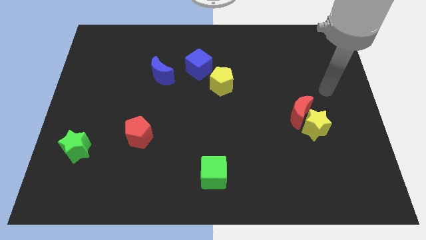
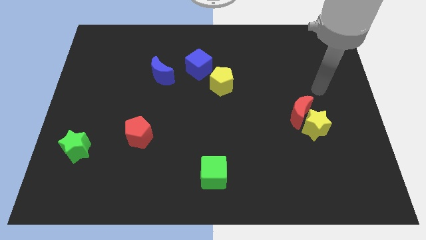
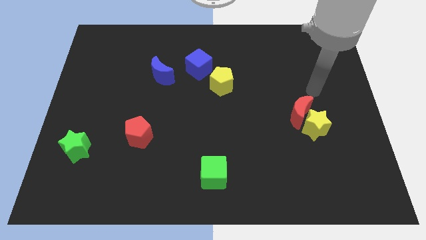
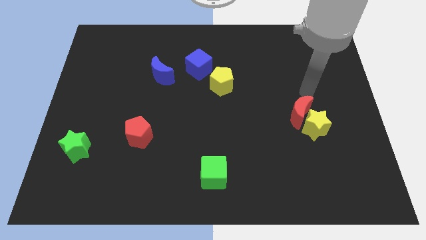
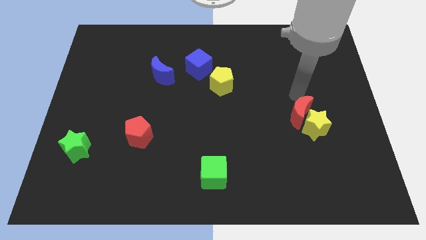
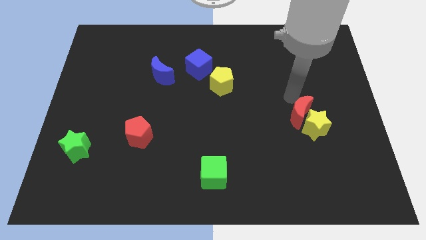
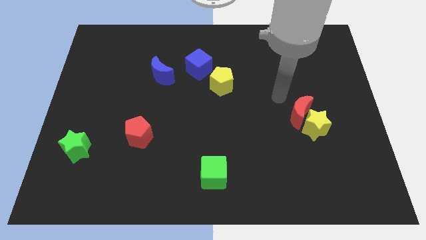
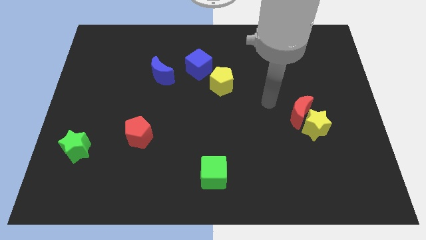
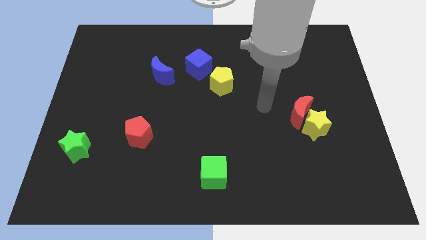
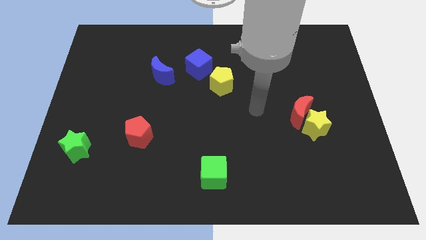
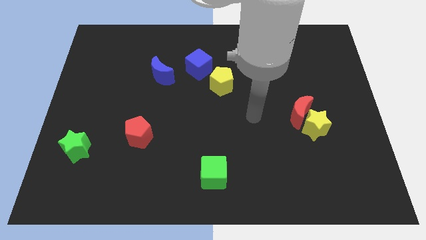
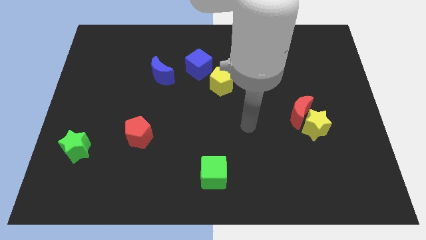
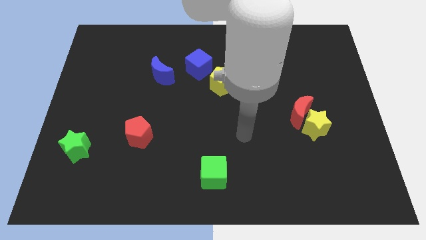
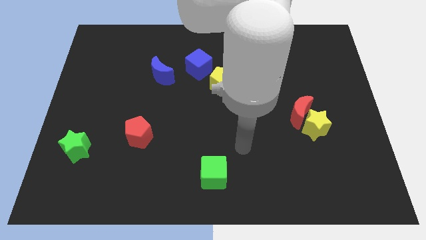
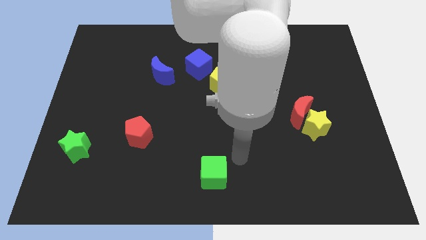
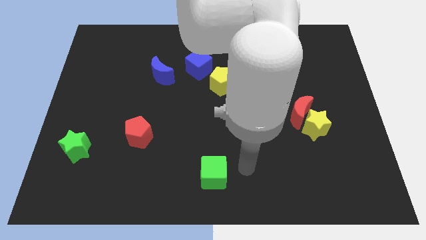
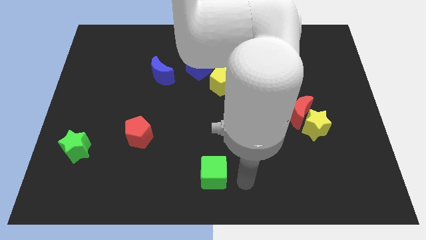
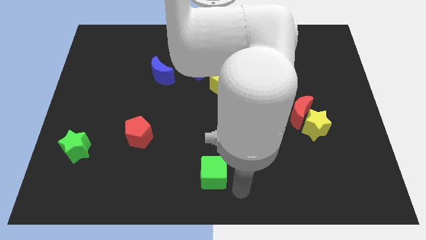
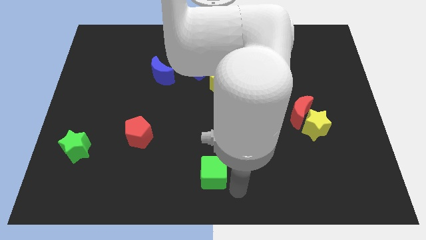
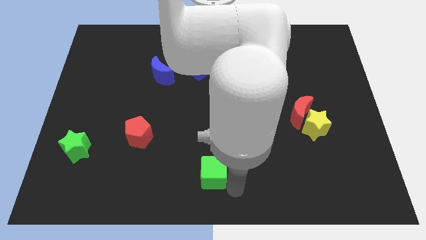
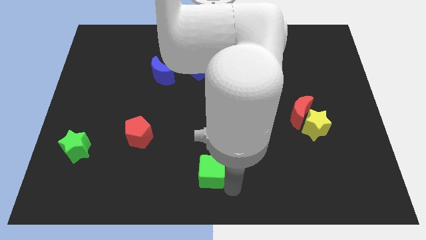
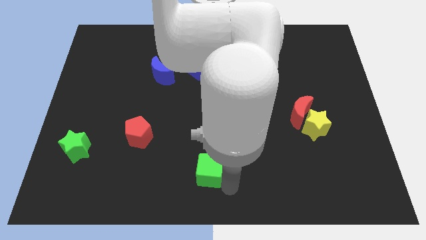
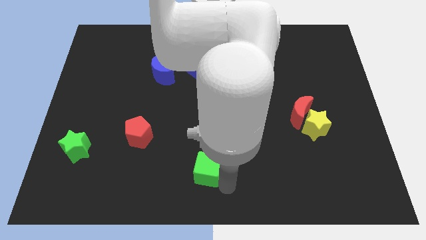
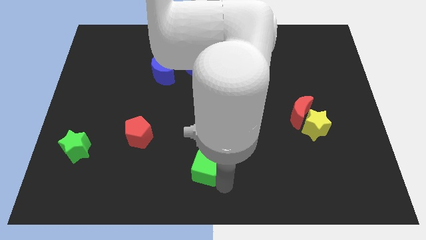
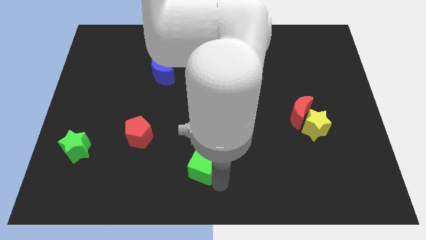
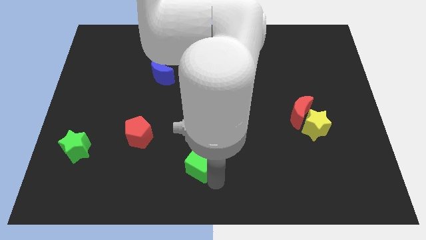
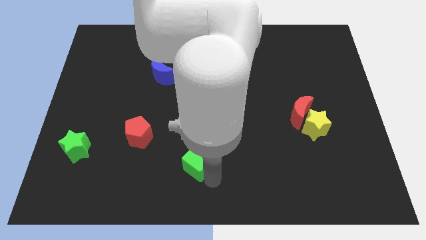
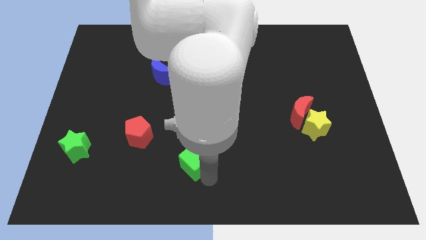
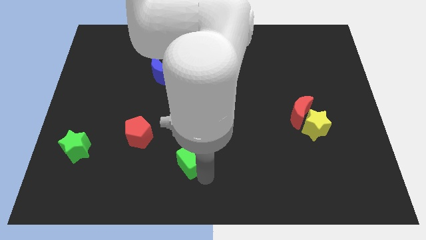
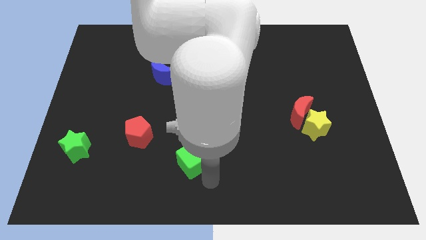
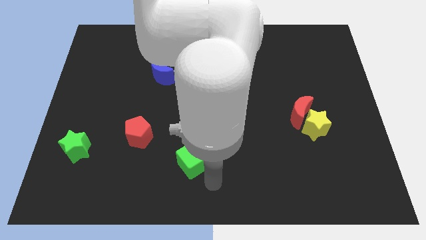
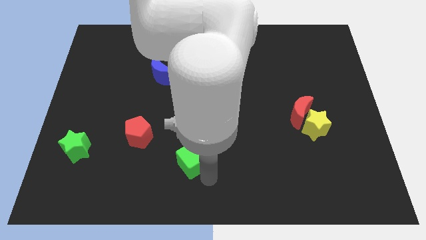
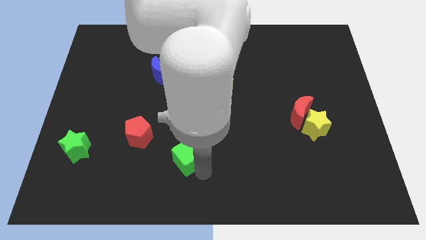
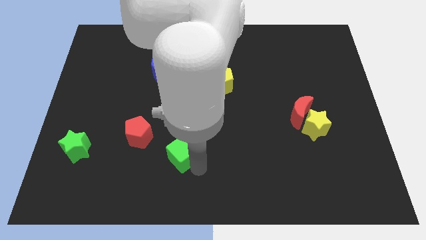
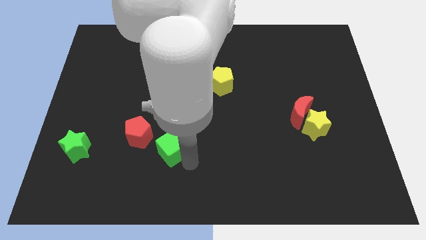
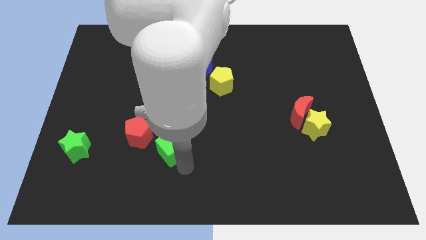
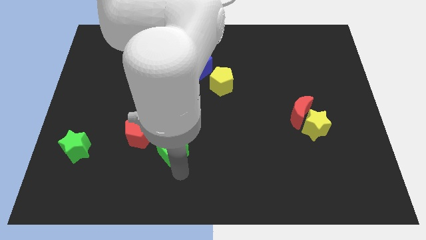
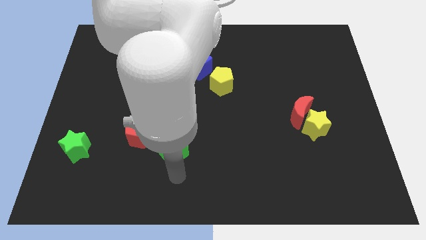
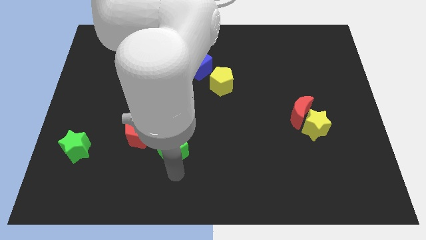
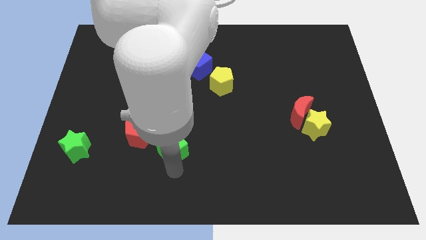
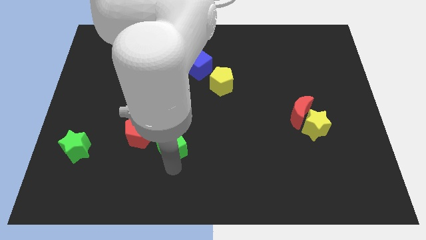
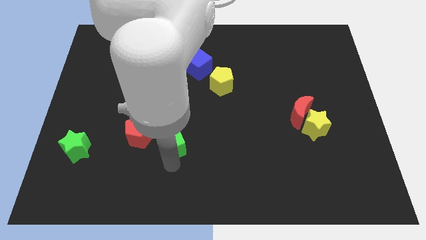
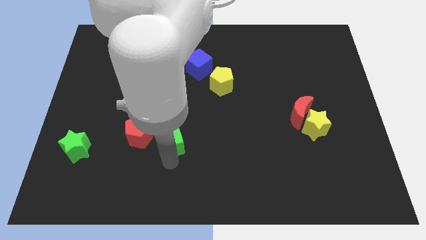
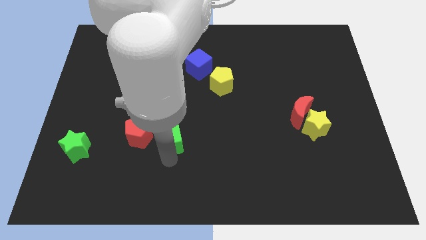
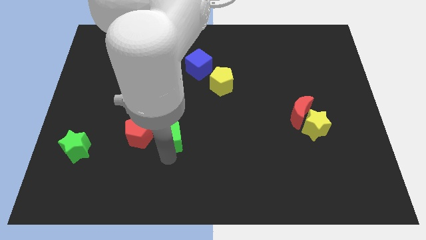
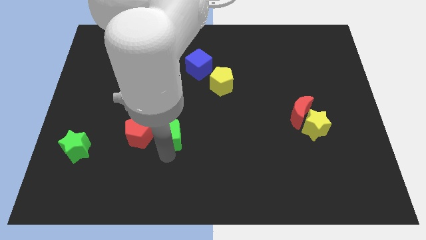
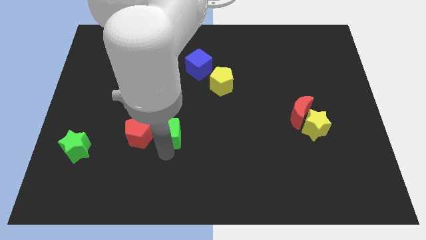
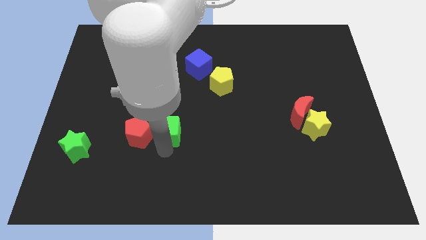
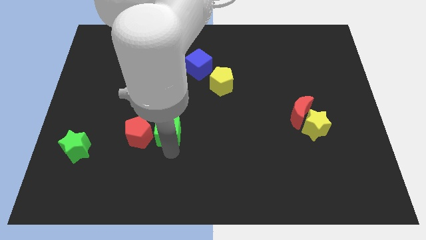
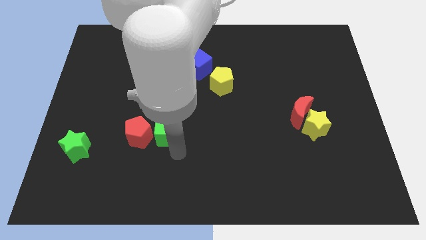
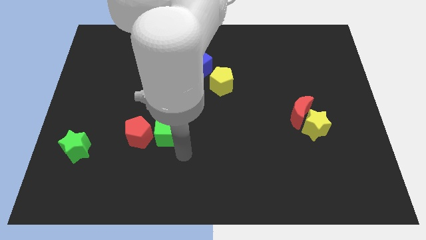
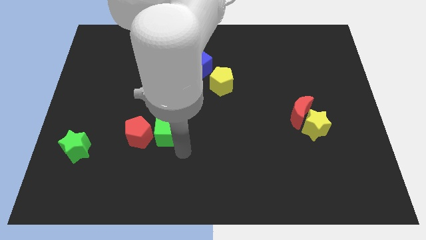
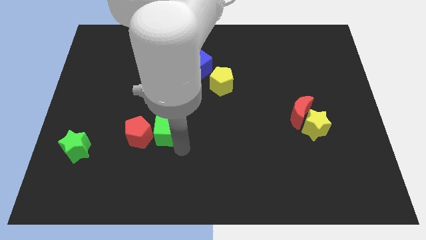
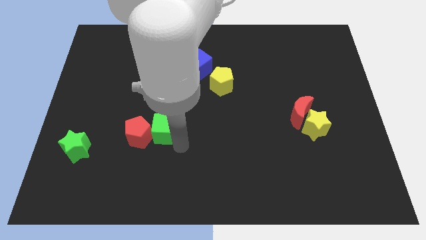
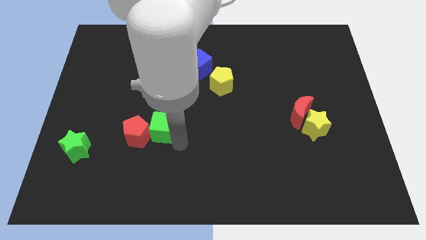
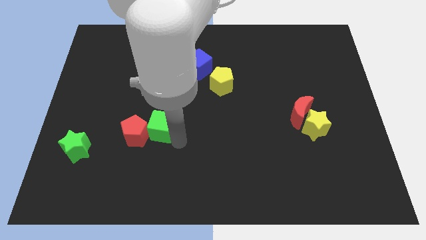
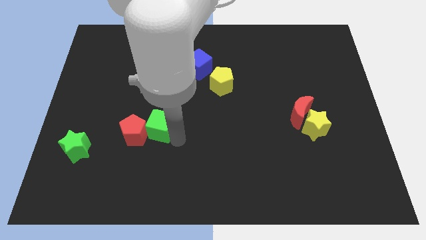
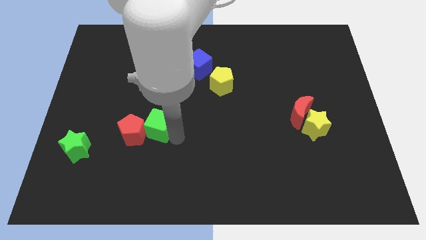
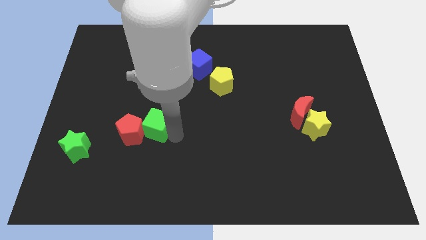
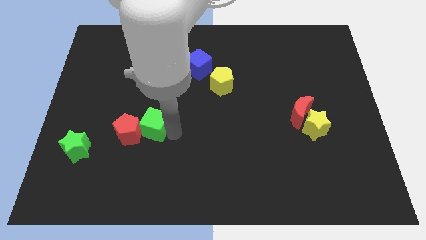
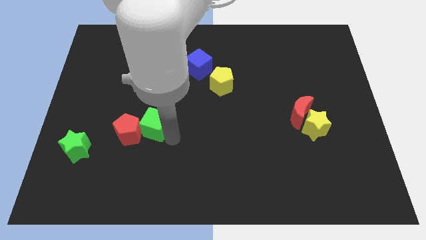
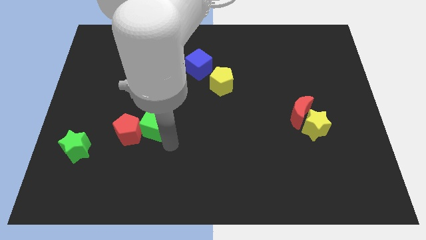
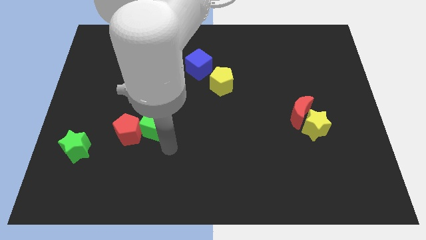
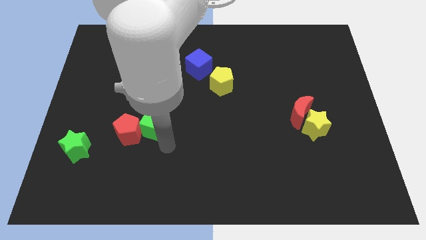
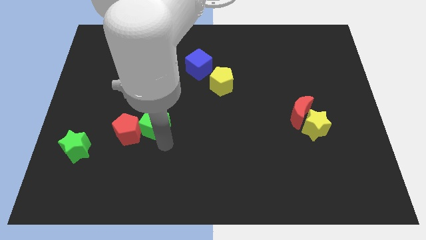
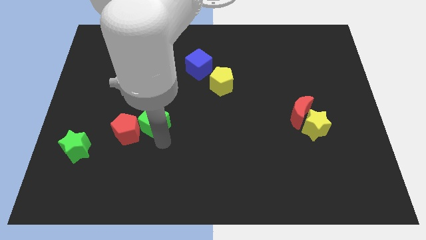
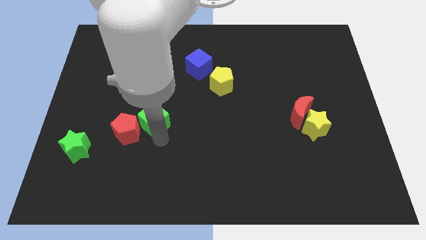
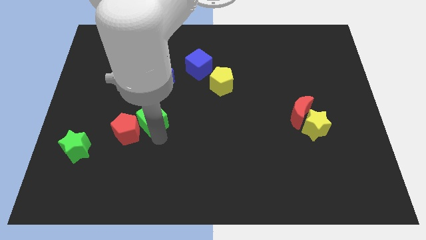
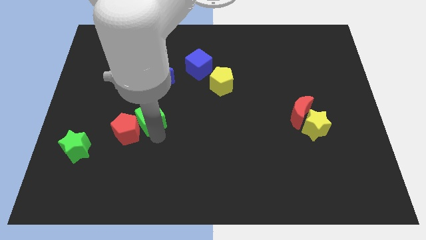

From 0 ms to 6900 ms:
move the green cube diagonally upwards and left

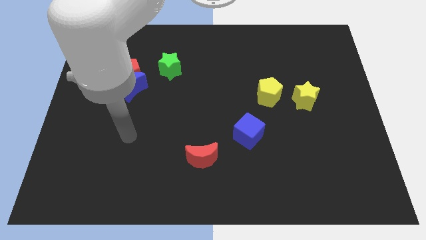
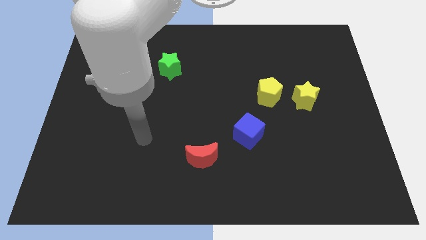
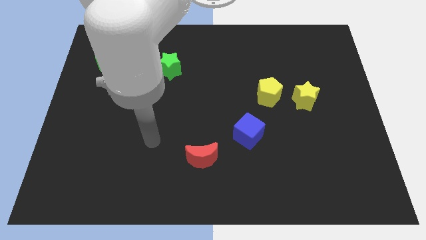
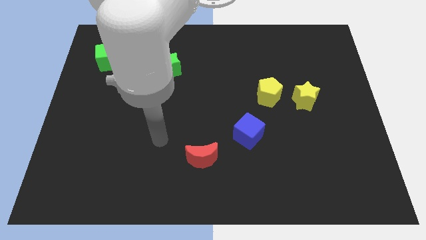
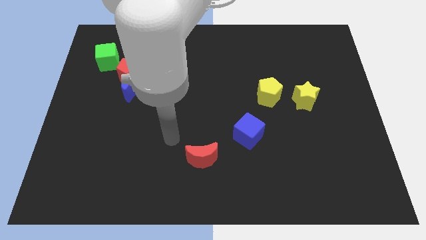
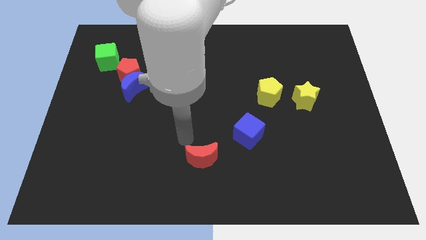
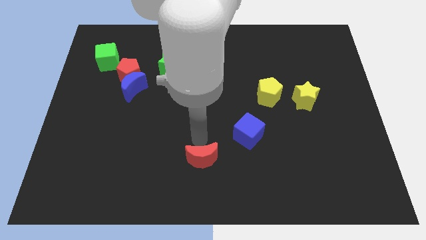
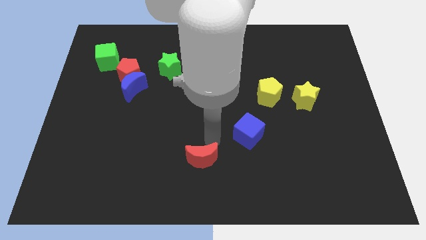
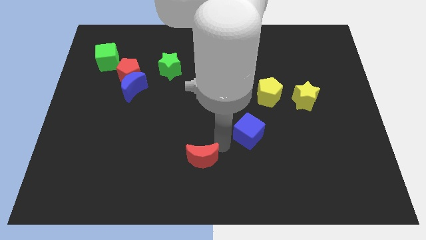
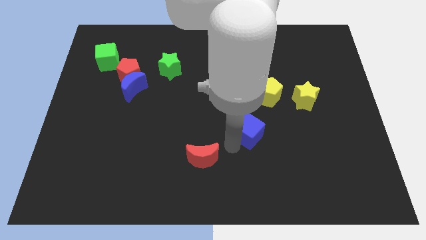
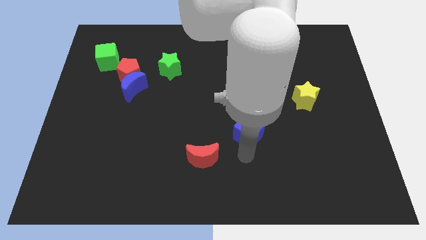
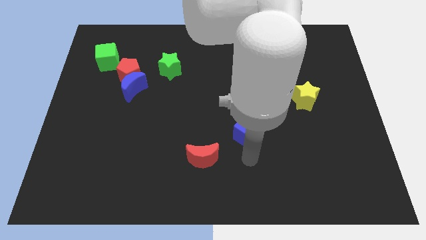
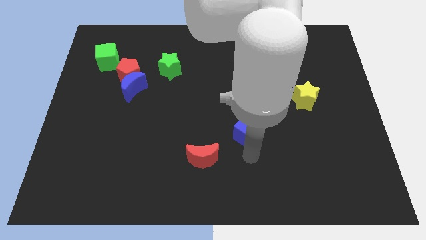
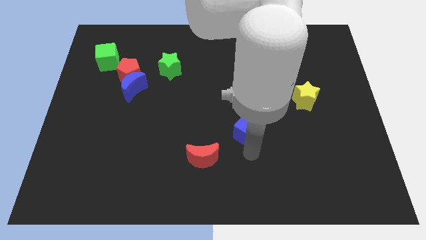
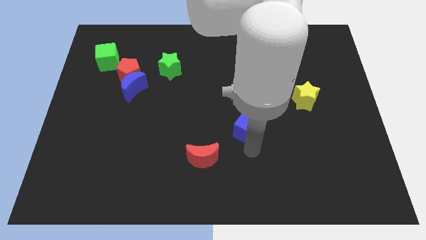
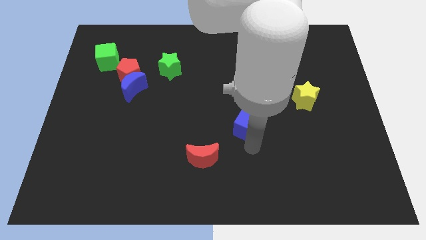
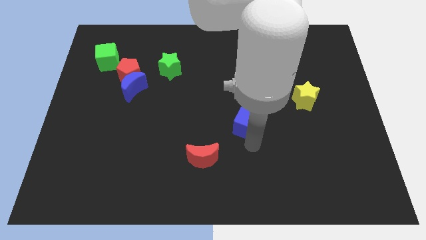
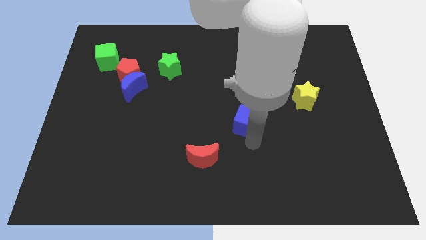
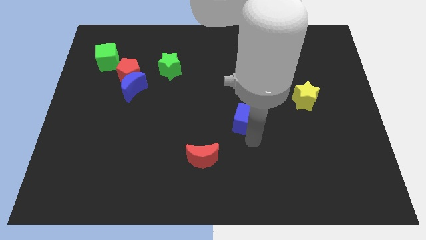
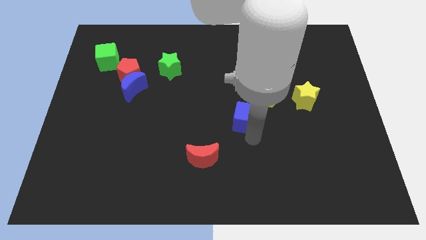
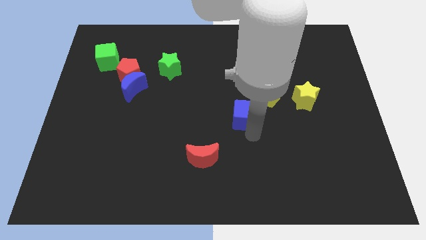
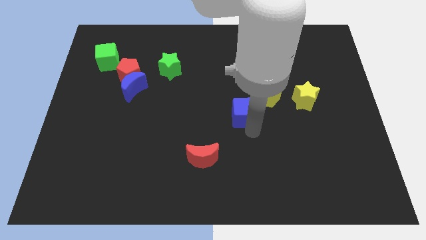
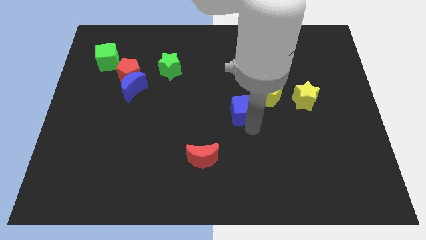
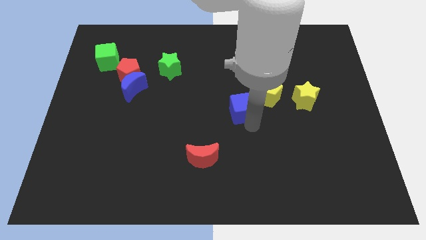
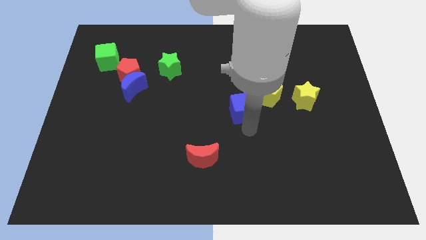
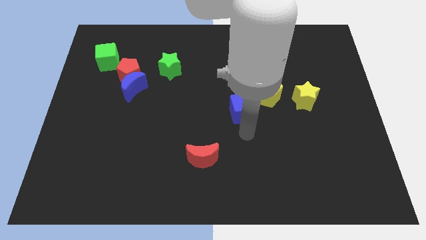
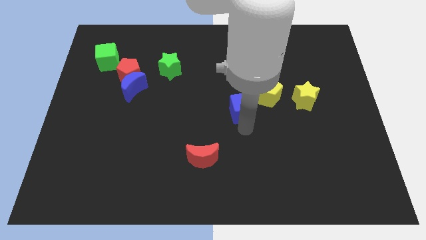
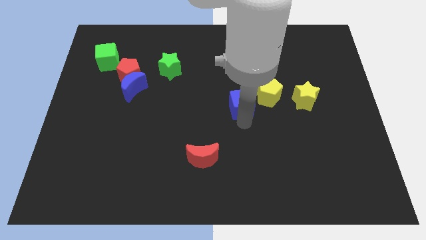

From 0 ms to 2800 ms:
slightly push the blue cube upwards
